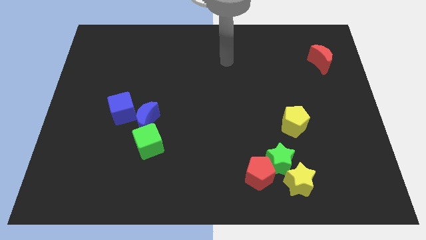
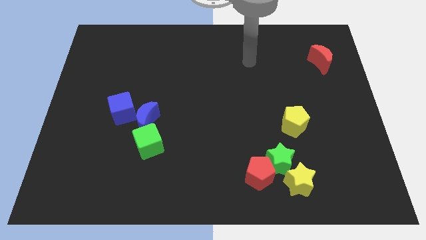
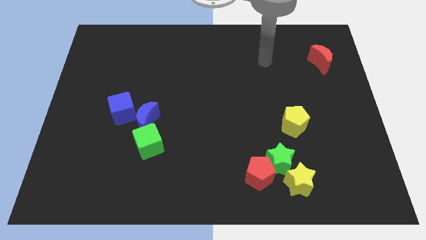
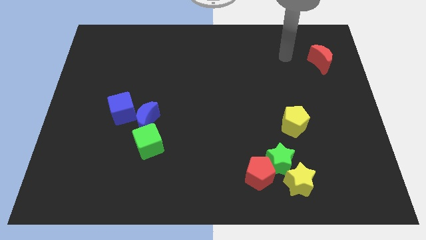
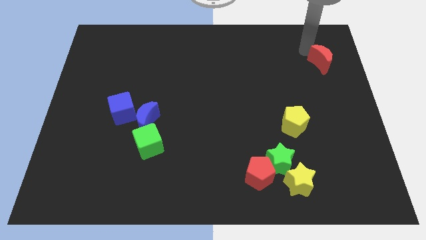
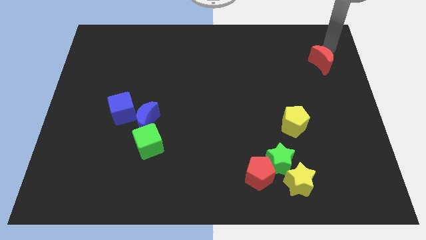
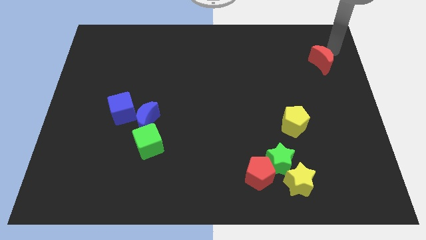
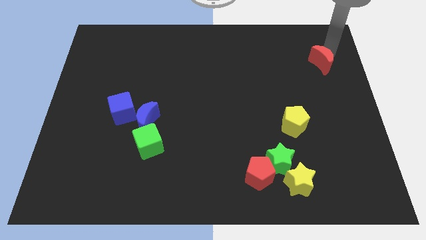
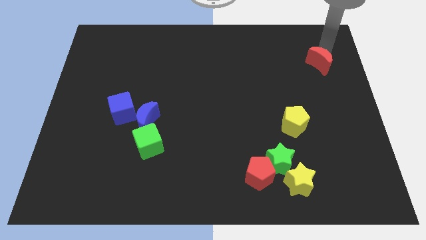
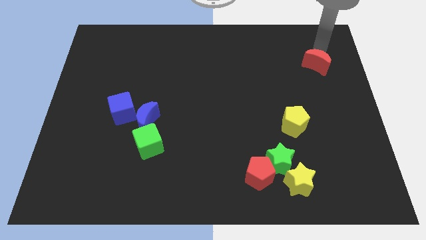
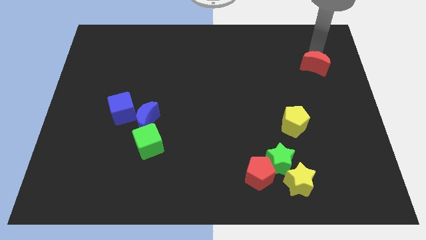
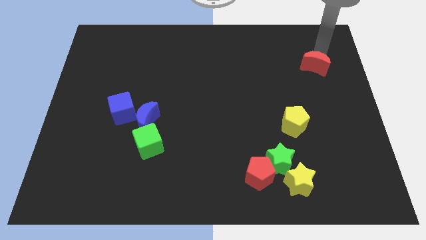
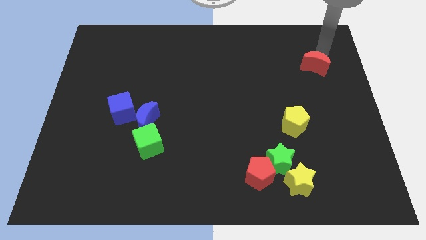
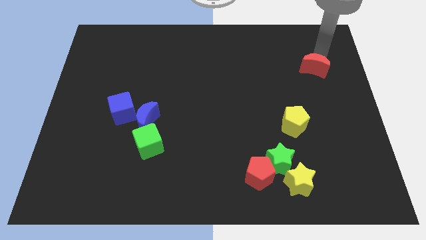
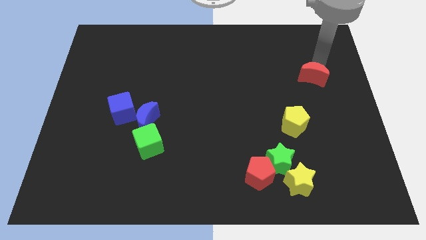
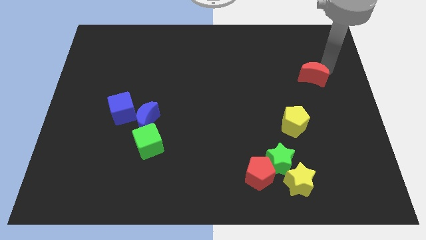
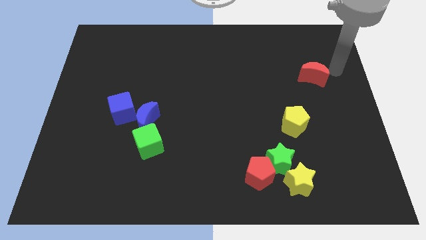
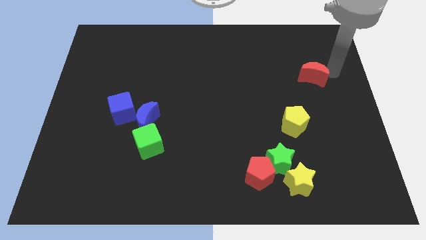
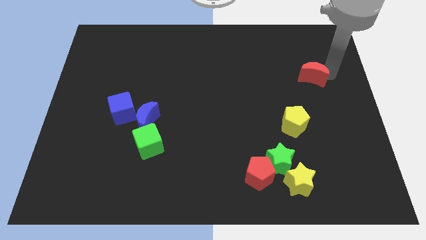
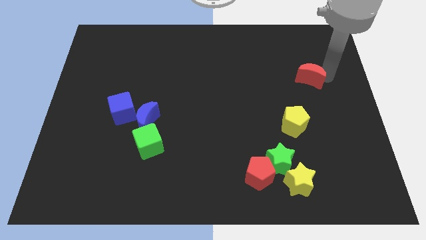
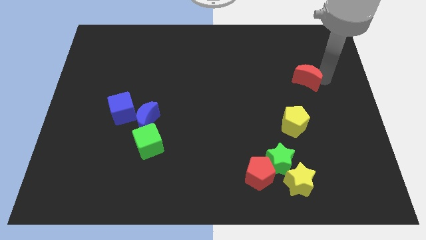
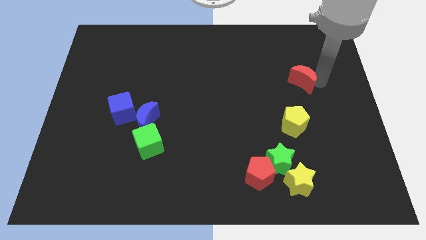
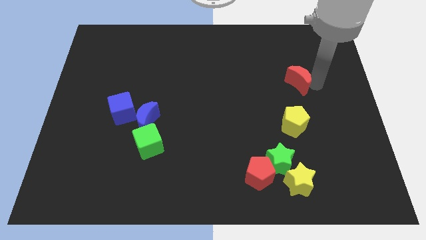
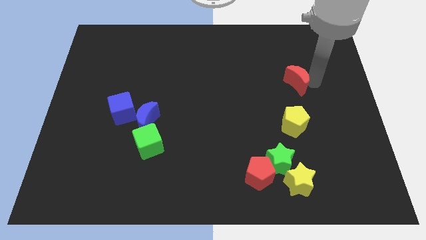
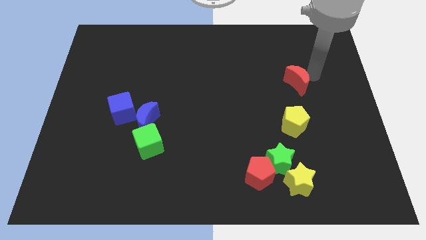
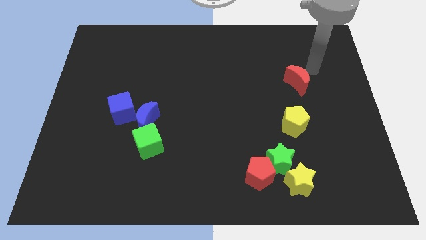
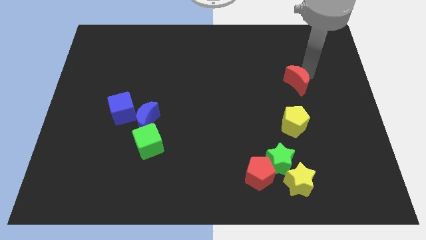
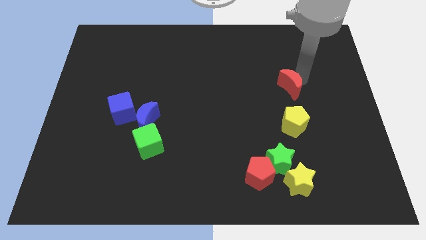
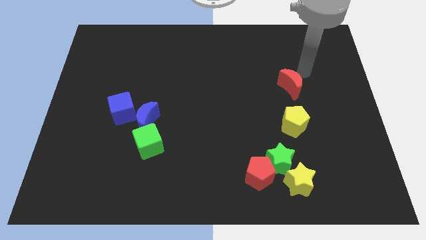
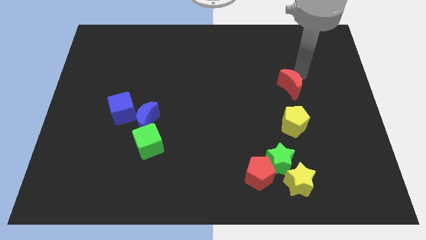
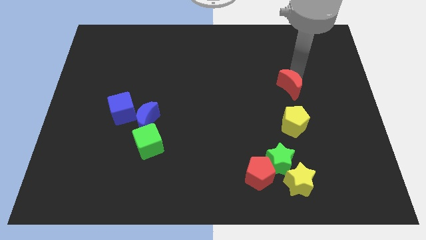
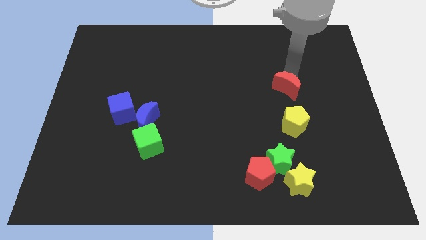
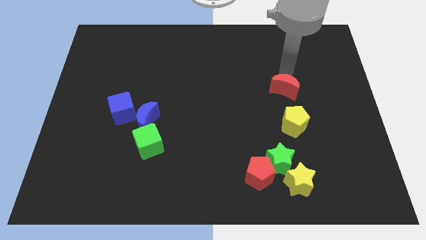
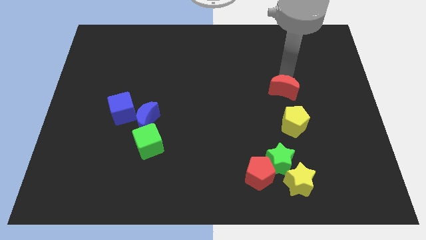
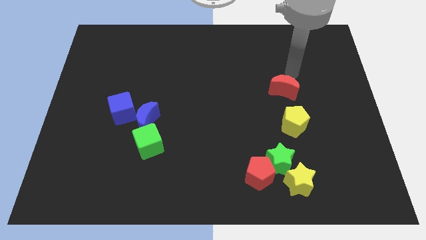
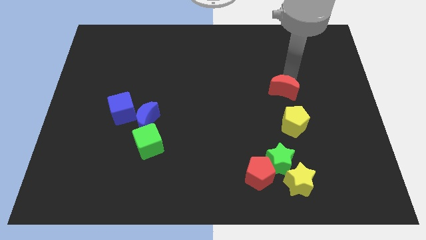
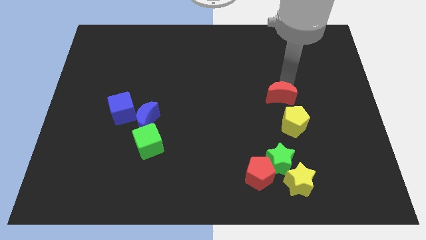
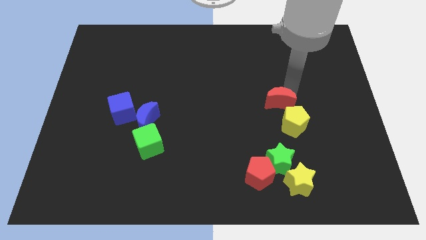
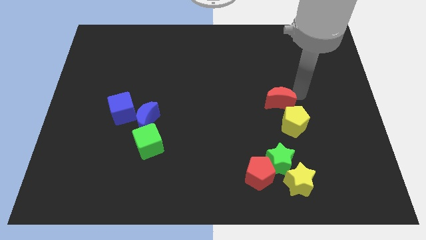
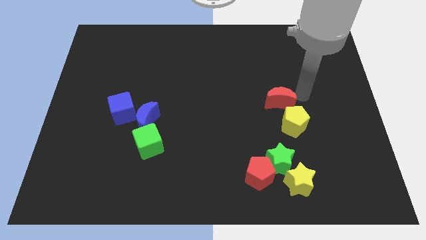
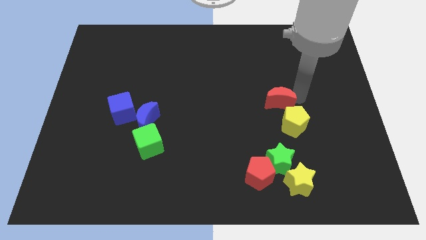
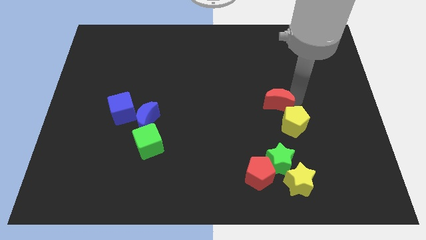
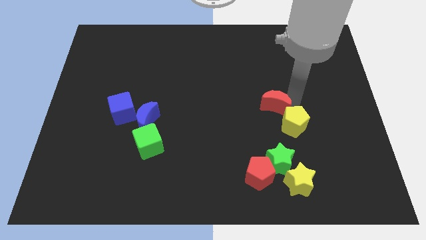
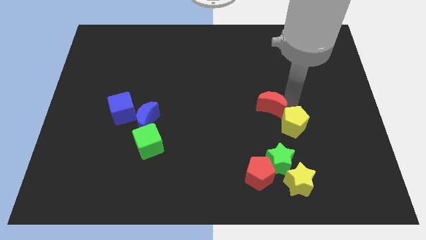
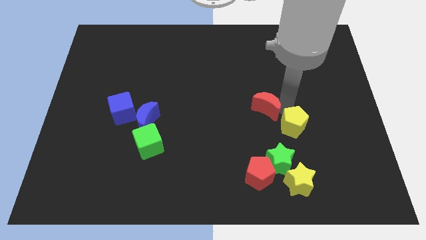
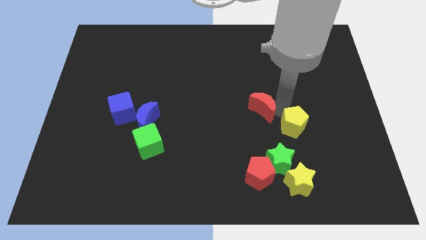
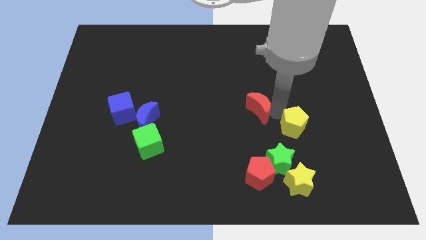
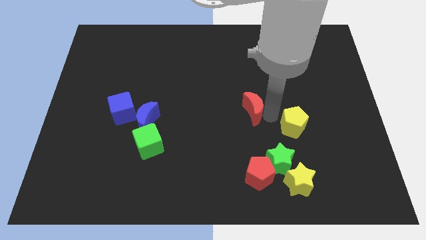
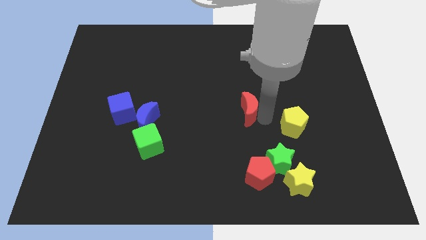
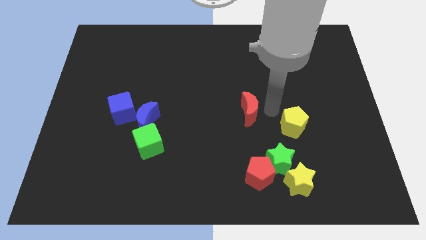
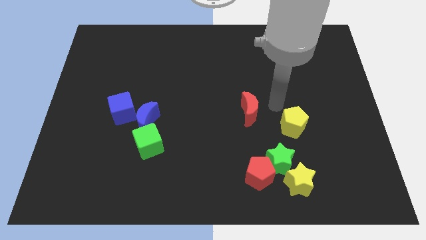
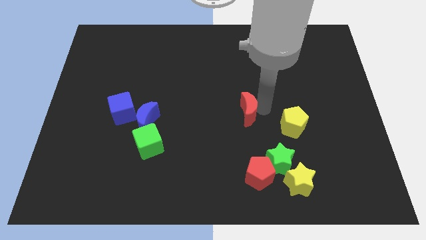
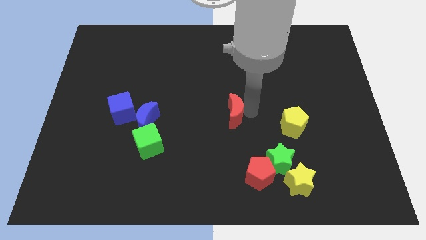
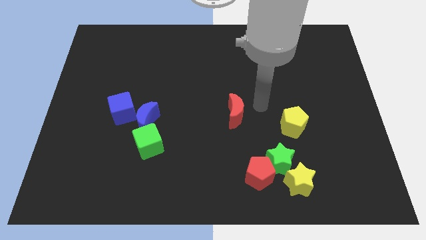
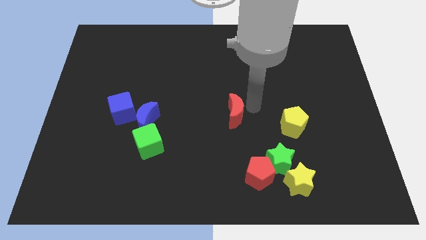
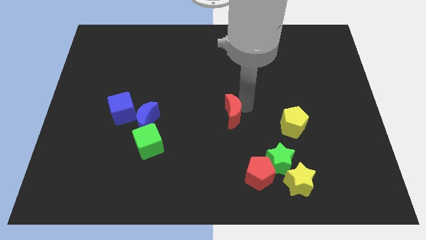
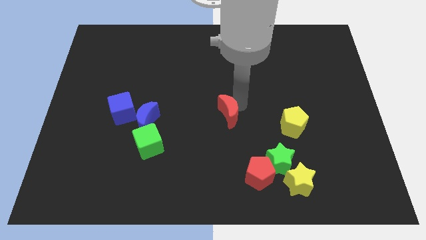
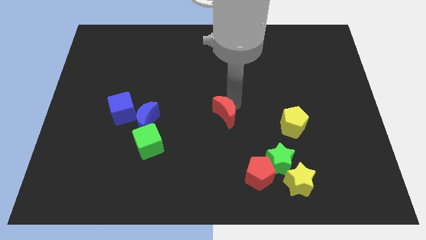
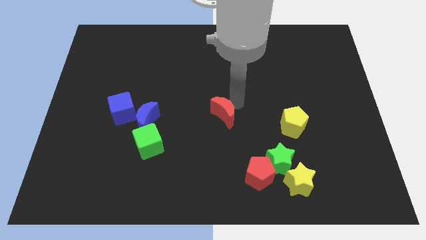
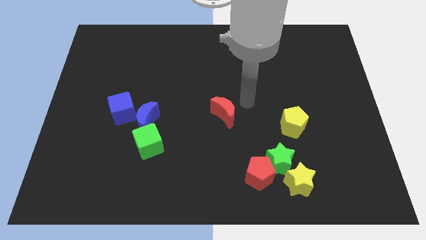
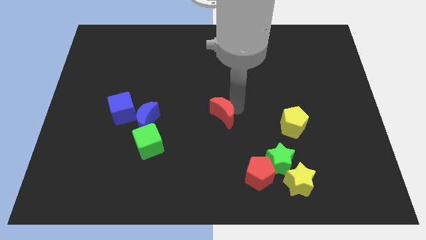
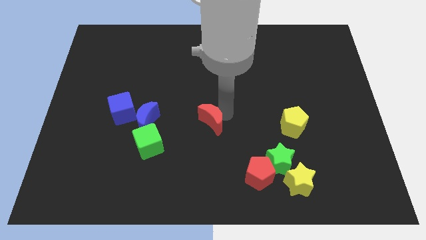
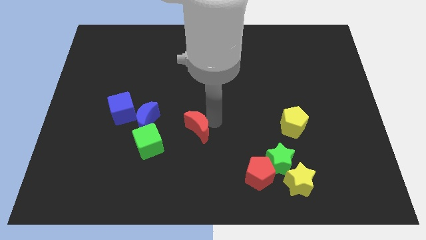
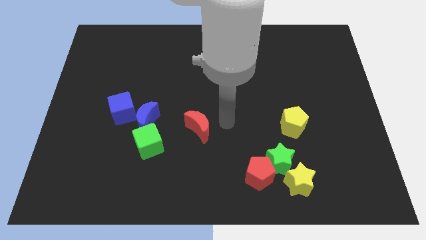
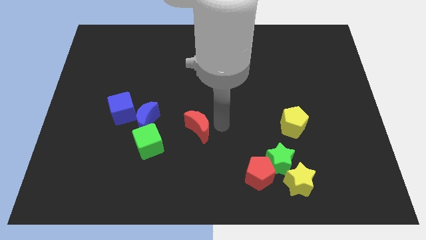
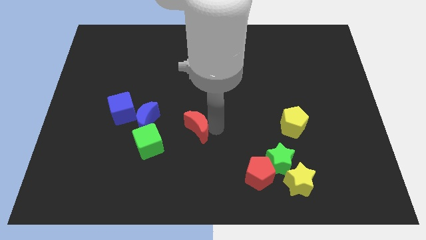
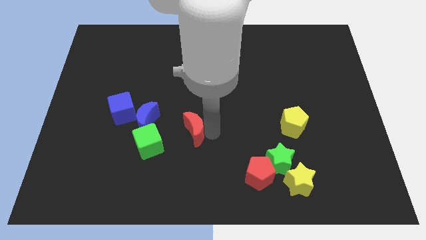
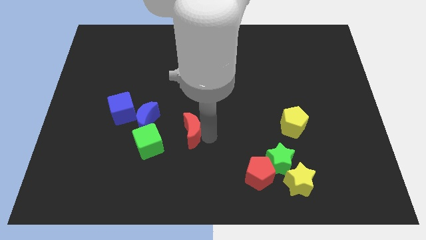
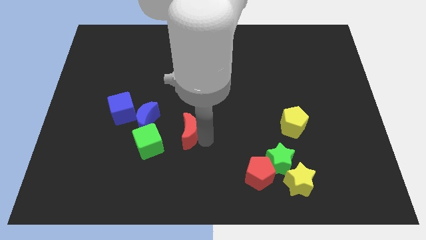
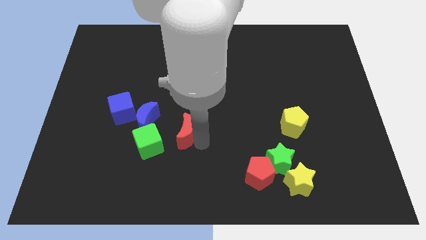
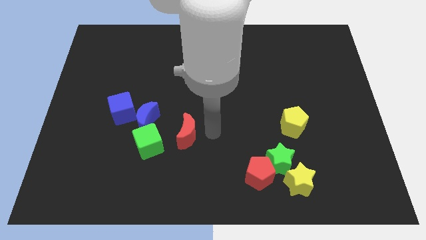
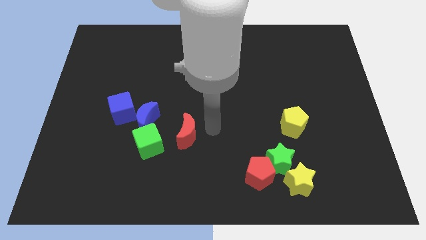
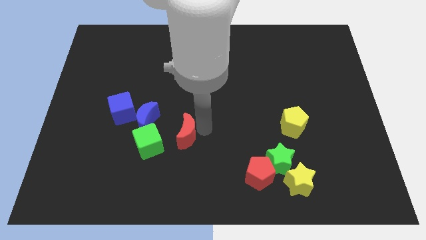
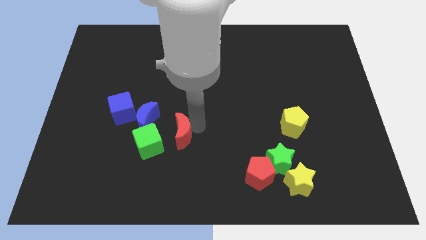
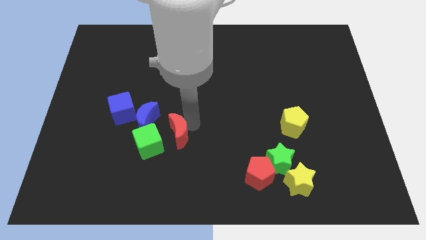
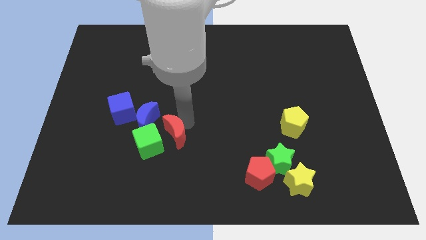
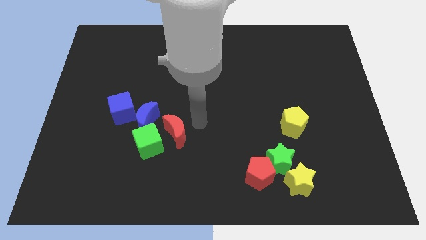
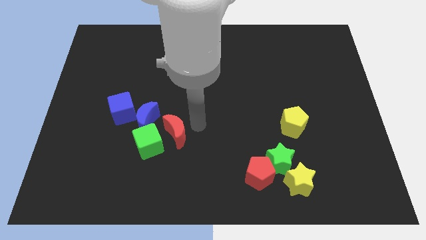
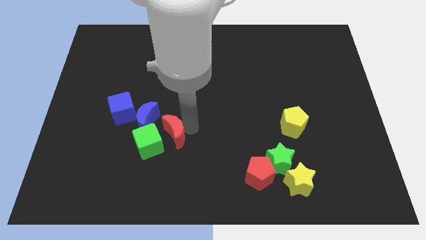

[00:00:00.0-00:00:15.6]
push the red moon towards the green cube
